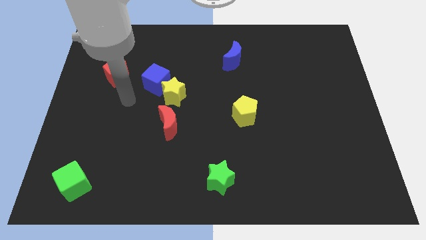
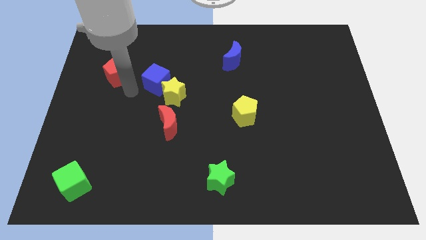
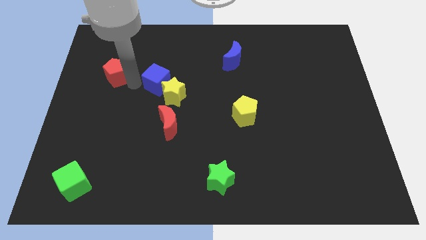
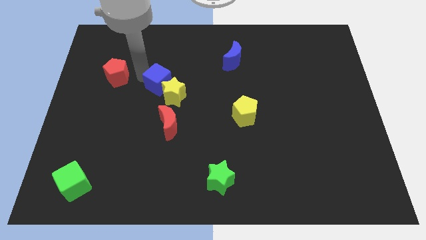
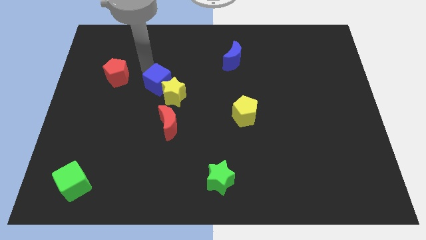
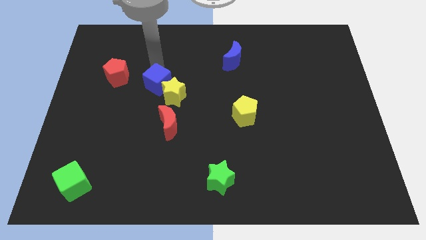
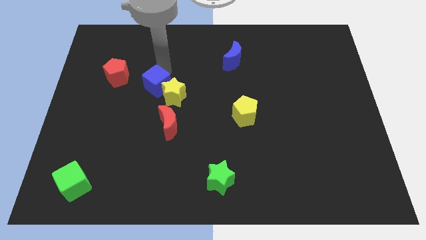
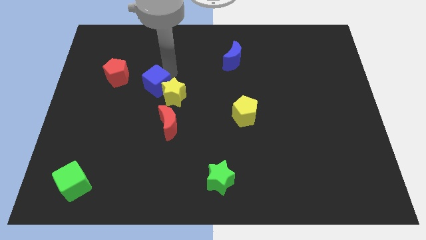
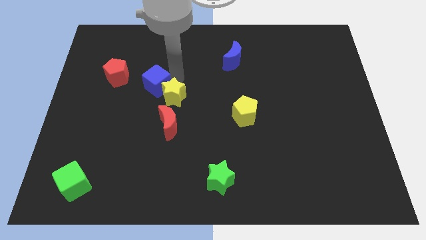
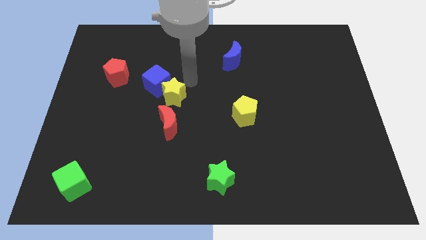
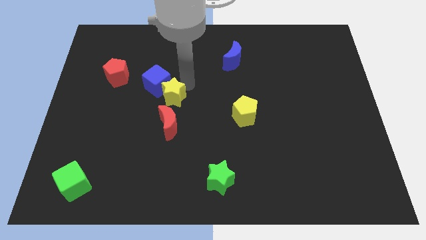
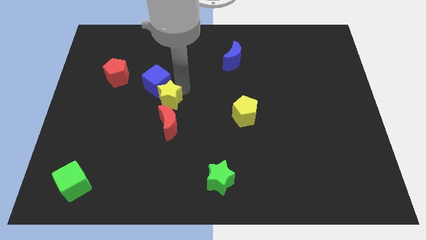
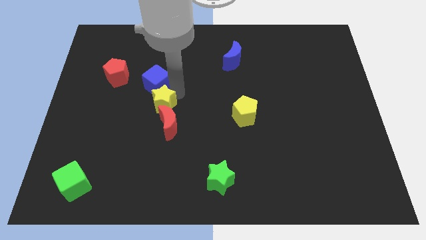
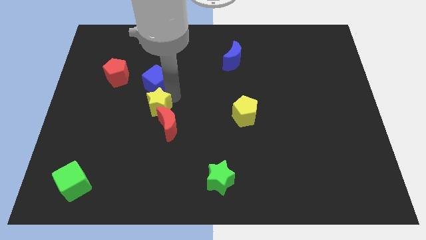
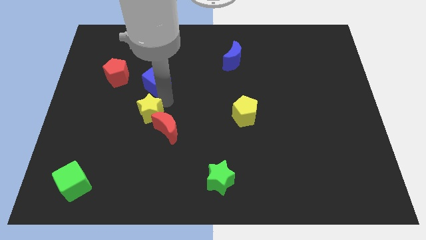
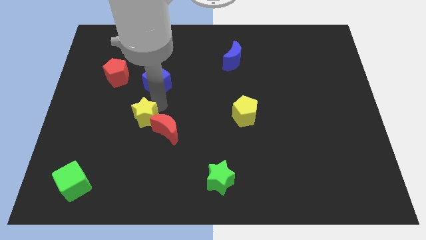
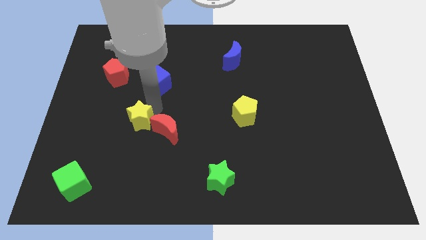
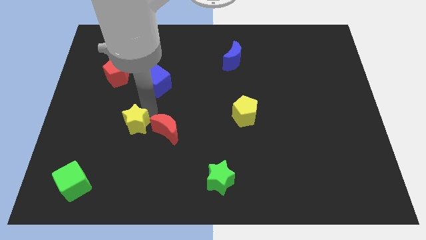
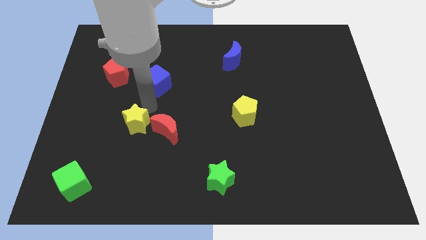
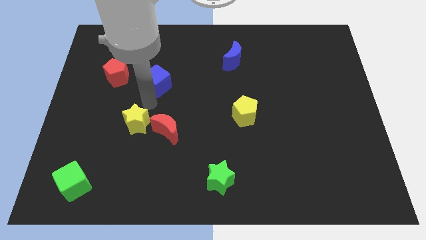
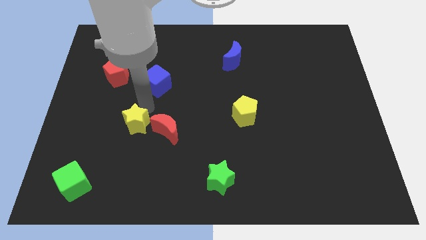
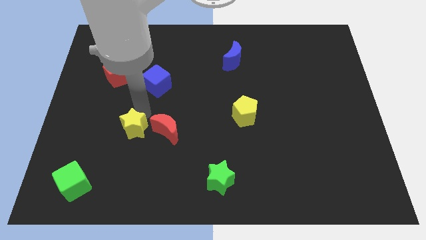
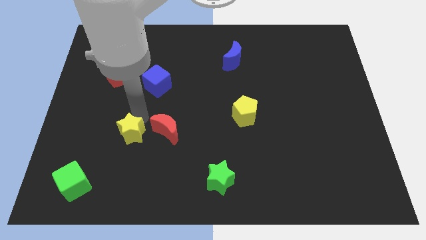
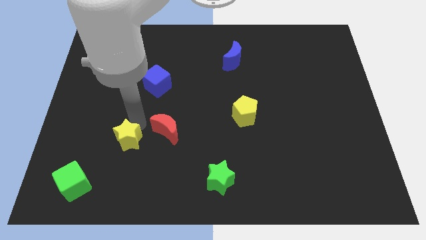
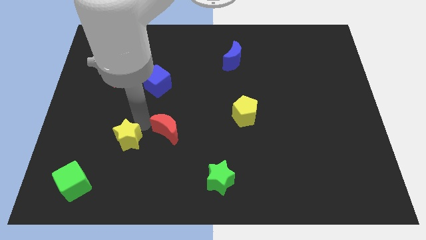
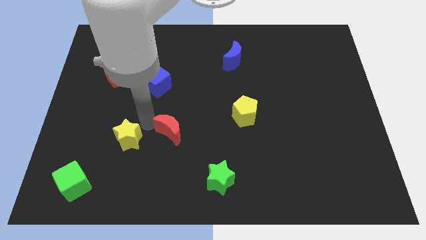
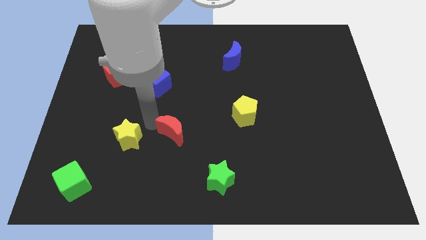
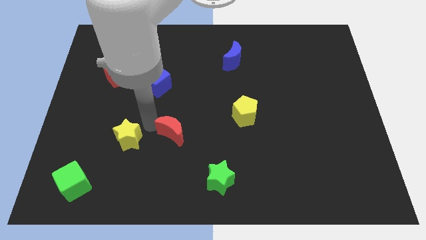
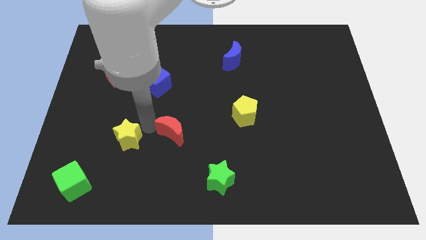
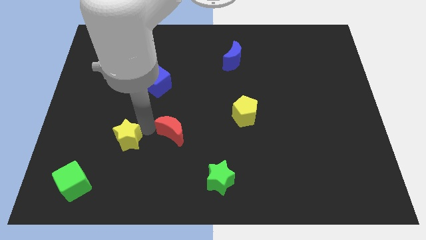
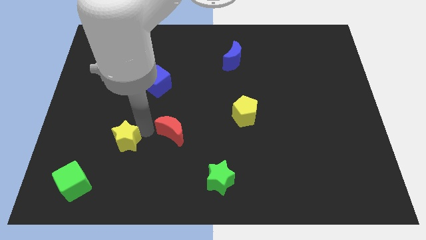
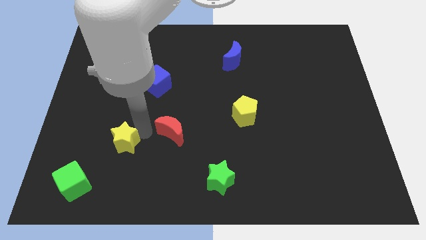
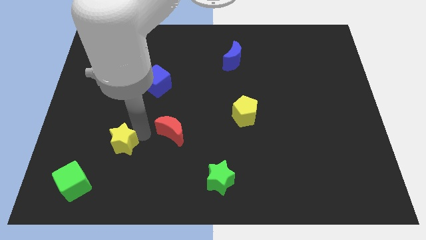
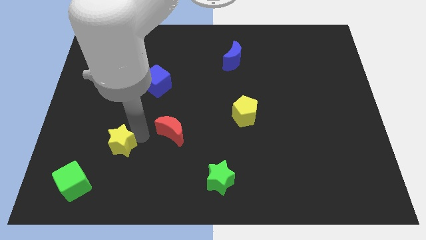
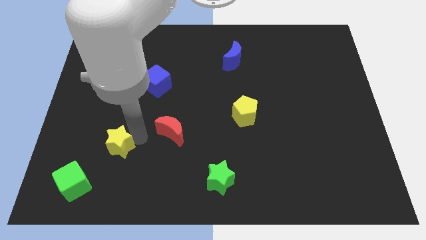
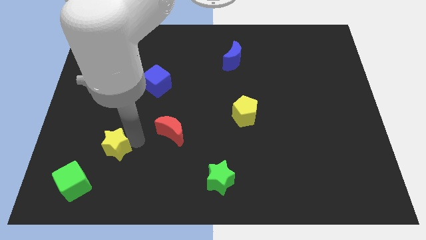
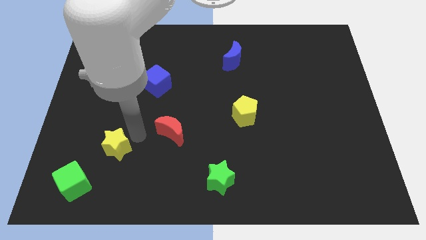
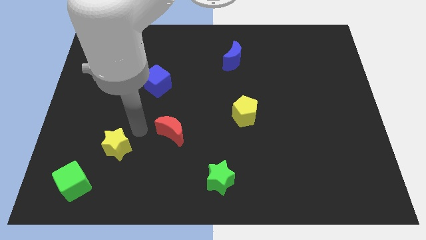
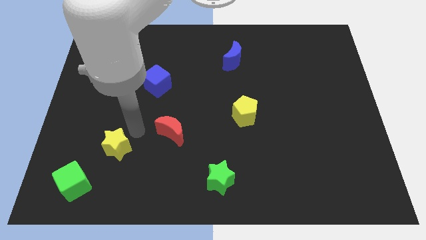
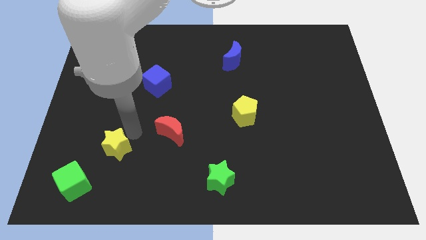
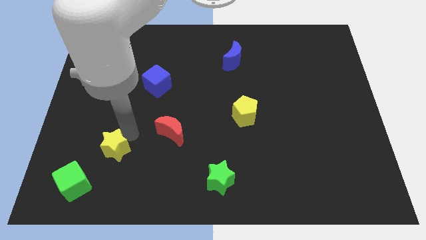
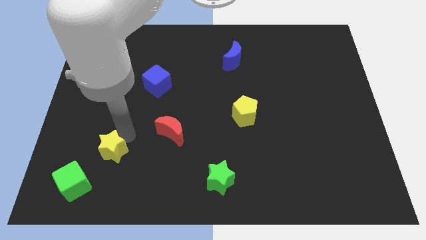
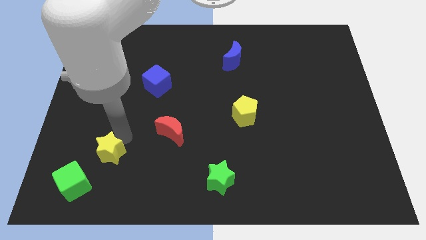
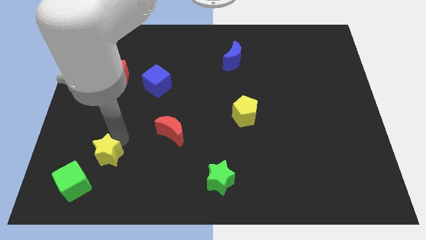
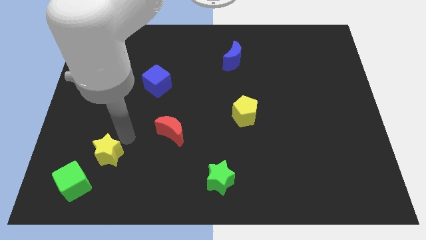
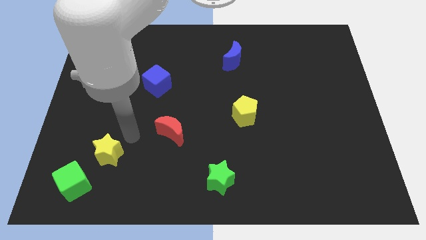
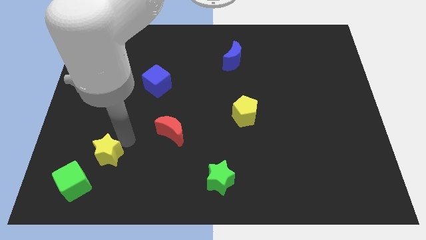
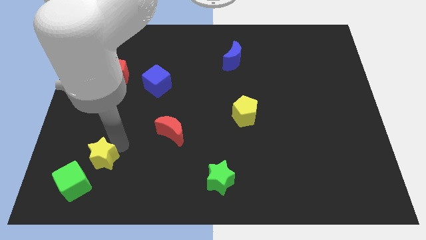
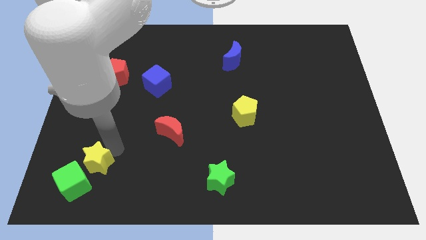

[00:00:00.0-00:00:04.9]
put the yellow star towards the green cube

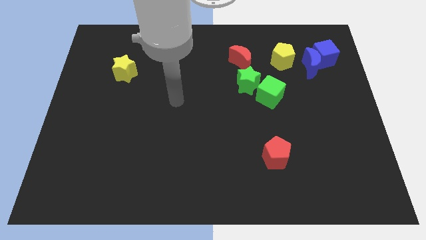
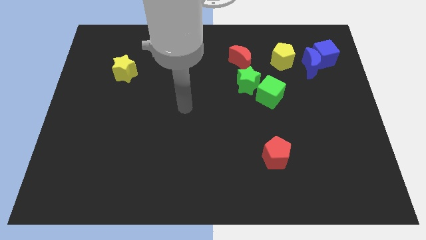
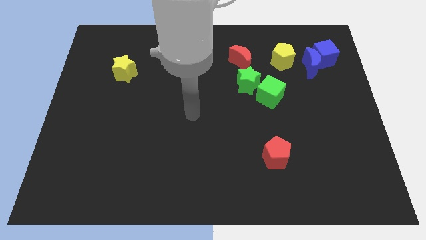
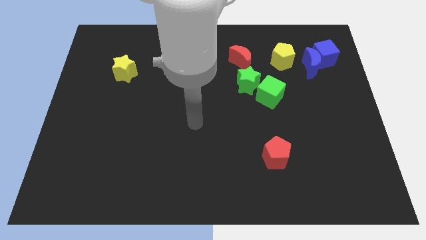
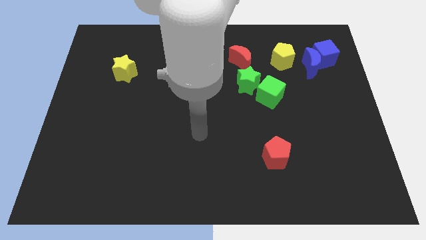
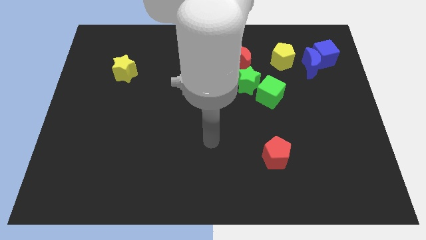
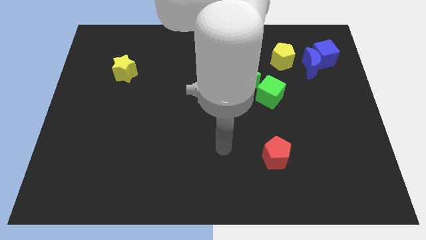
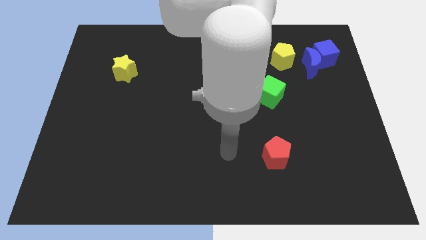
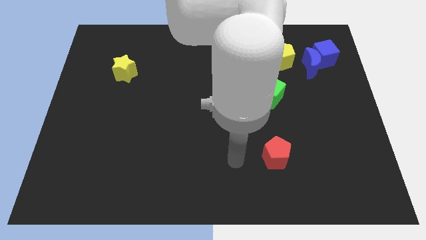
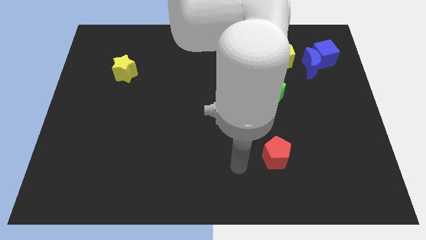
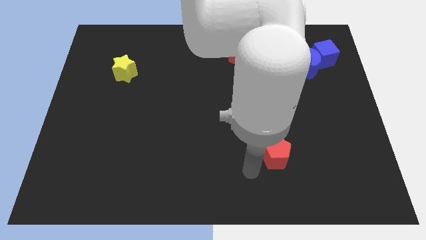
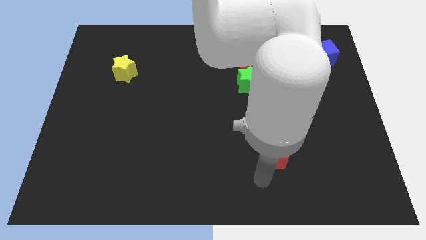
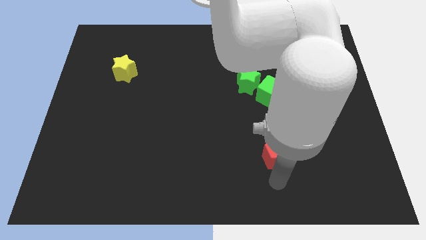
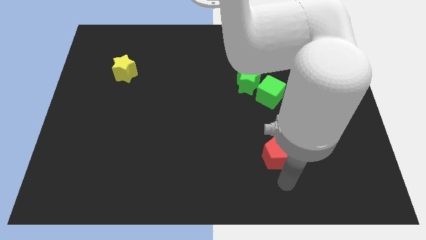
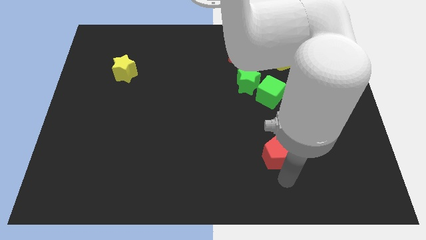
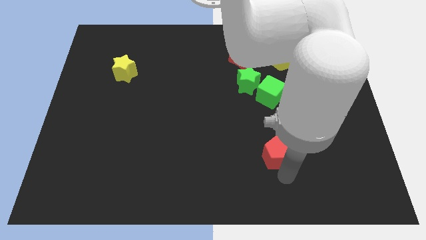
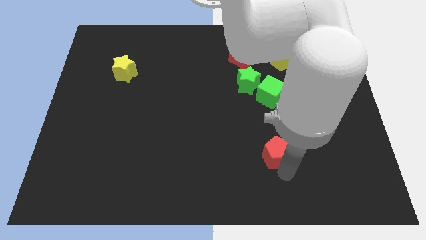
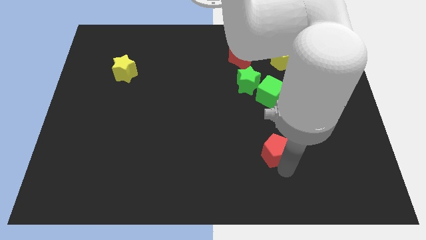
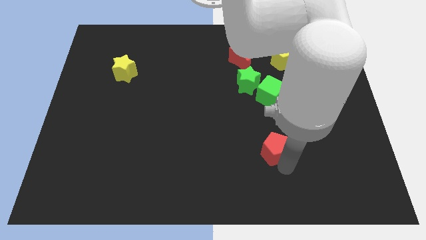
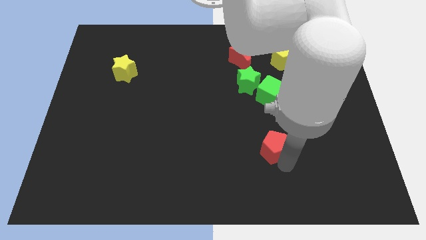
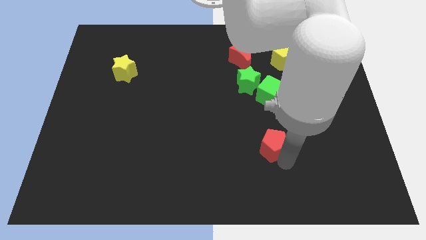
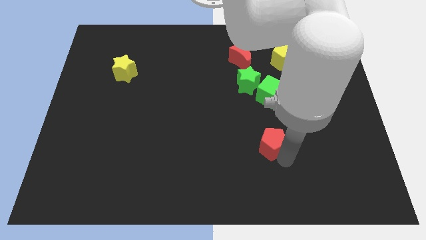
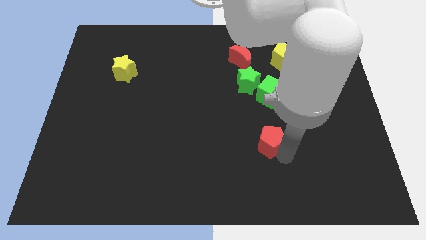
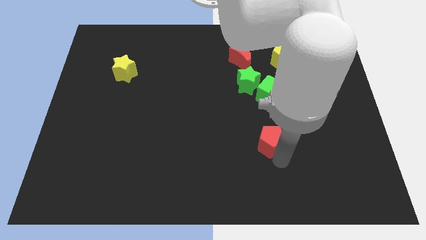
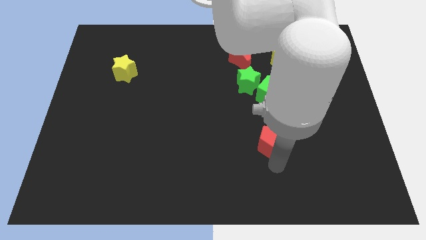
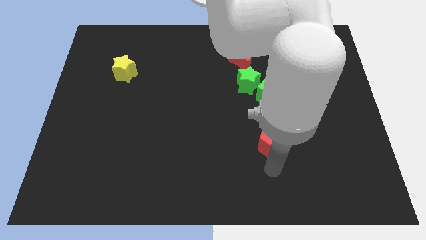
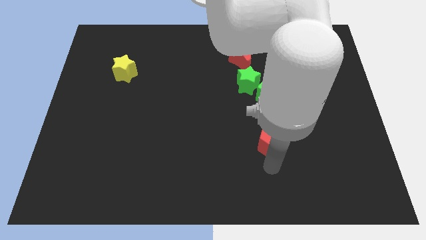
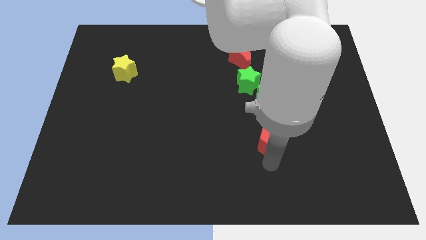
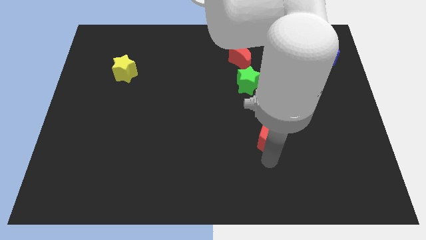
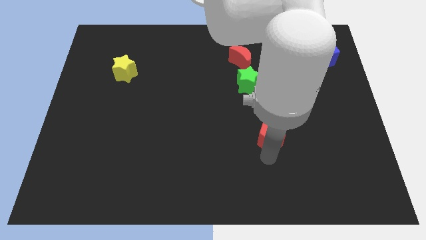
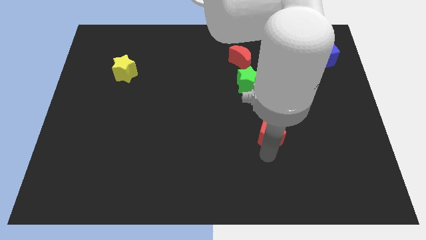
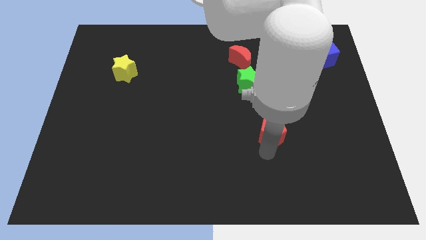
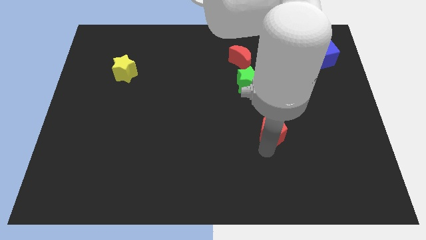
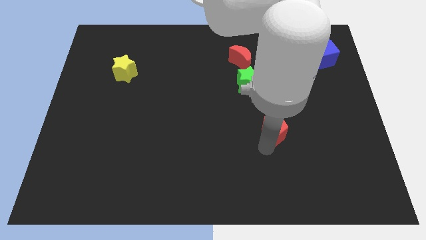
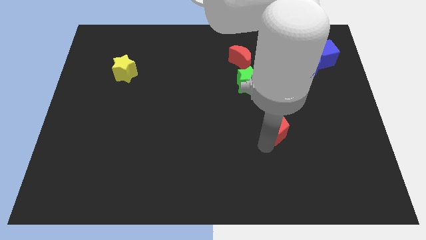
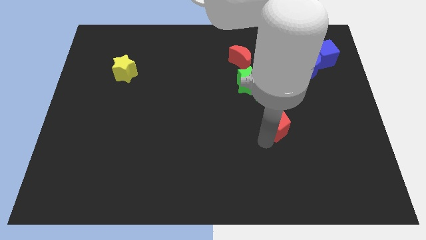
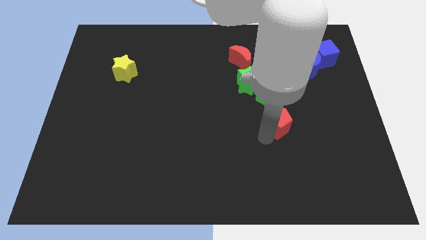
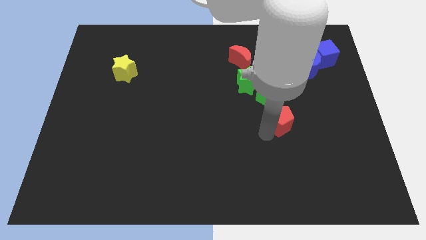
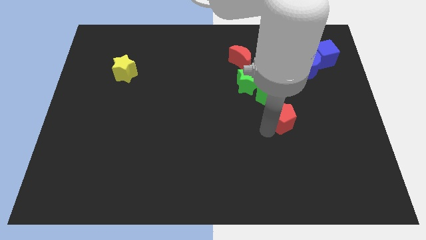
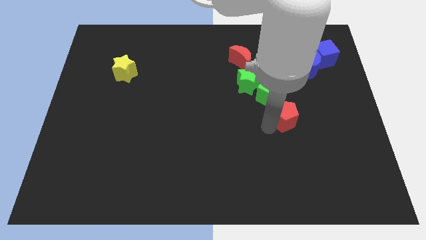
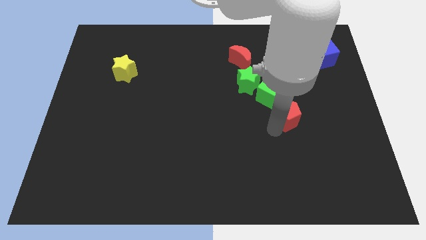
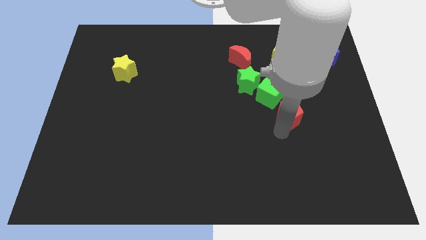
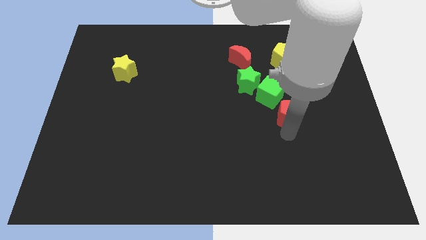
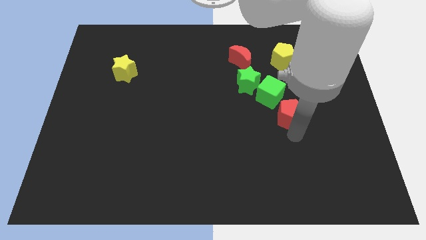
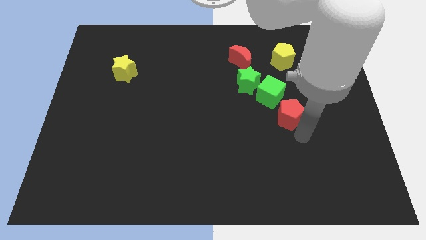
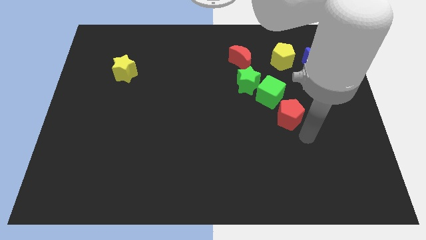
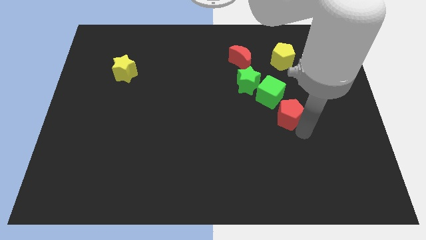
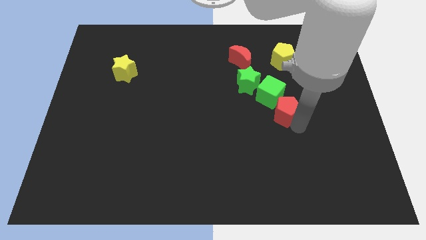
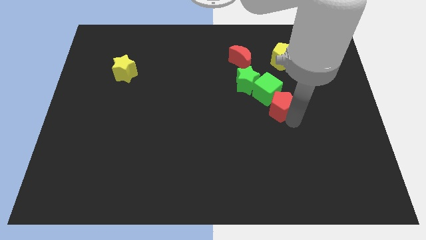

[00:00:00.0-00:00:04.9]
push the red pentagon next to the green cube
